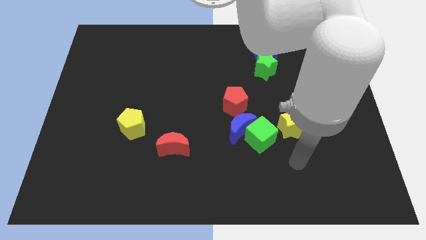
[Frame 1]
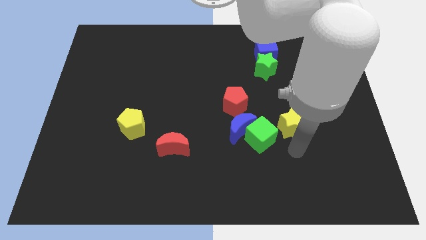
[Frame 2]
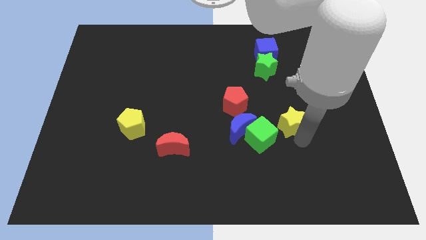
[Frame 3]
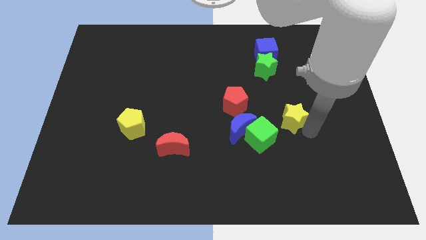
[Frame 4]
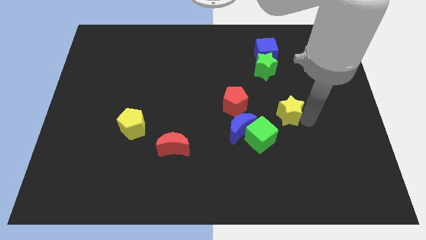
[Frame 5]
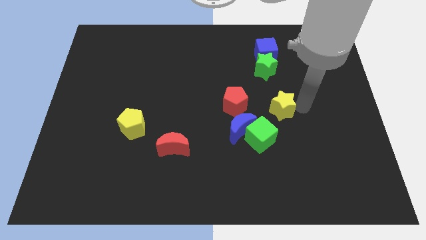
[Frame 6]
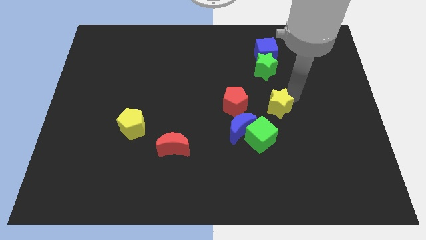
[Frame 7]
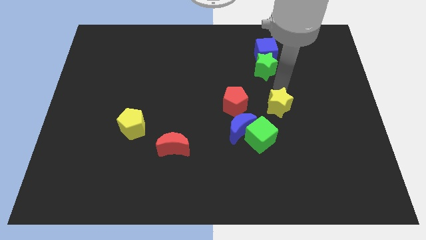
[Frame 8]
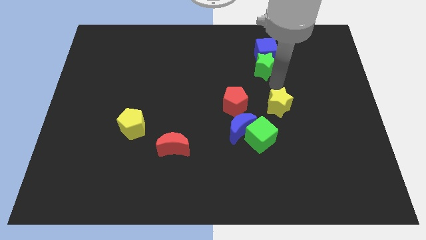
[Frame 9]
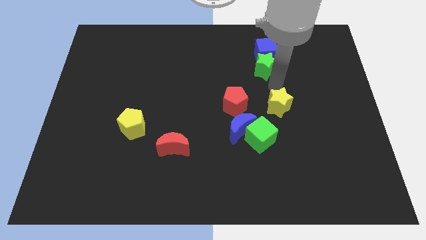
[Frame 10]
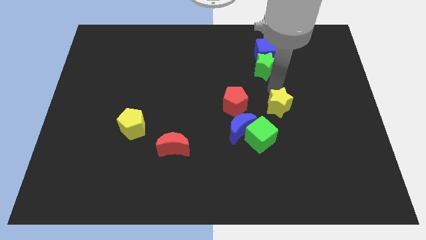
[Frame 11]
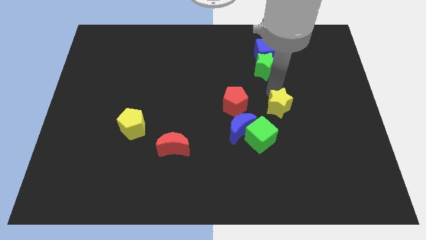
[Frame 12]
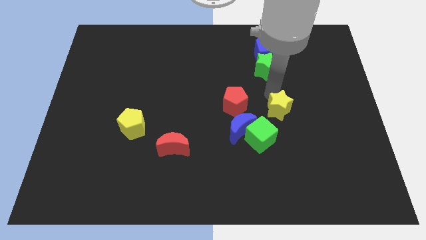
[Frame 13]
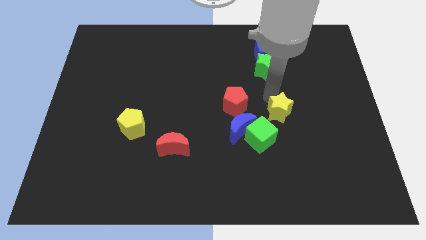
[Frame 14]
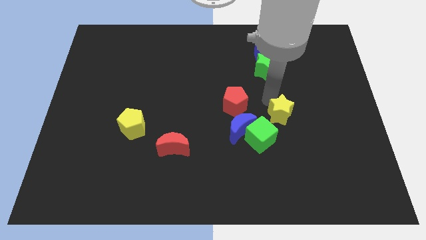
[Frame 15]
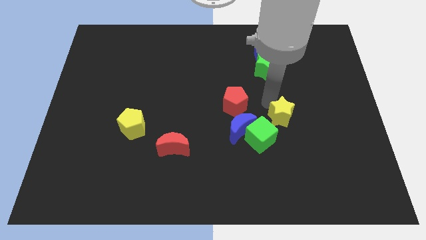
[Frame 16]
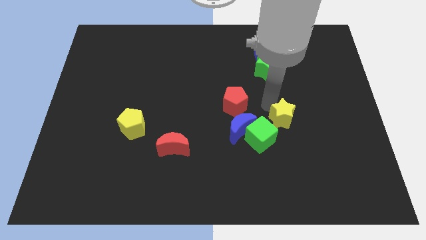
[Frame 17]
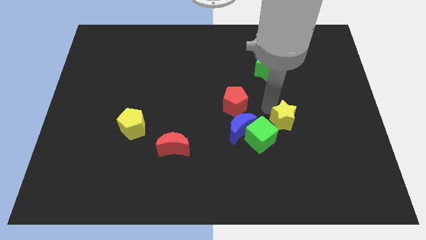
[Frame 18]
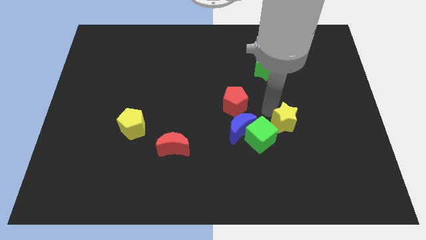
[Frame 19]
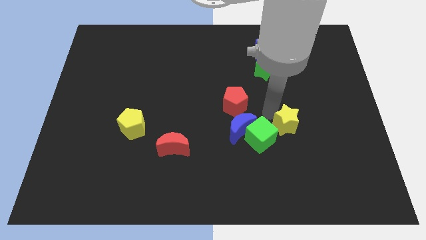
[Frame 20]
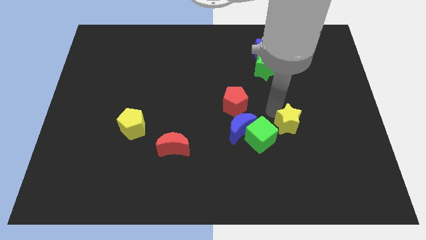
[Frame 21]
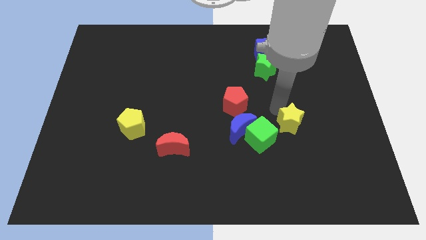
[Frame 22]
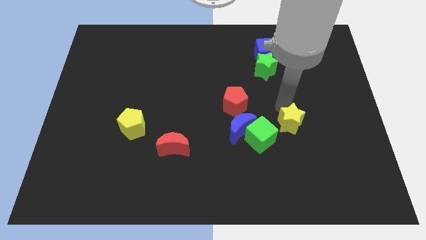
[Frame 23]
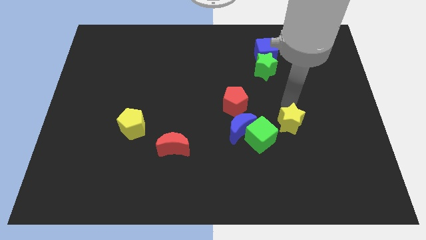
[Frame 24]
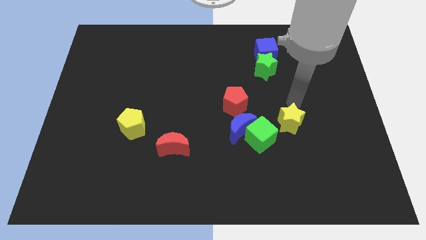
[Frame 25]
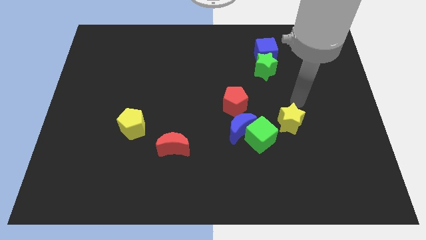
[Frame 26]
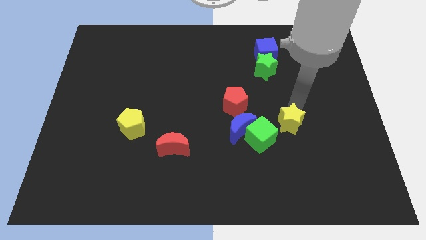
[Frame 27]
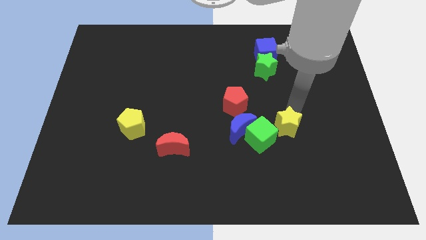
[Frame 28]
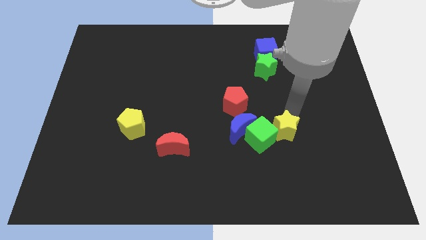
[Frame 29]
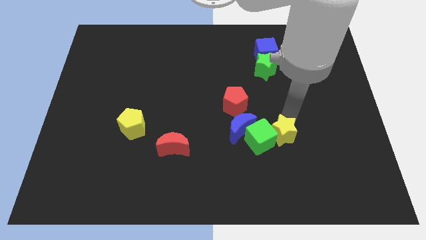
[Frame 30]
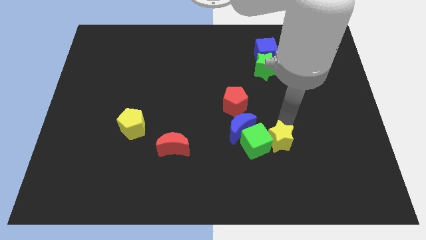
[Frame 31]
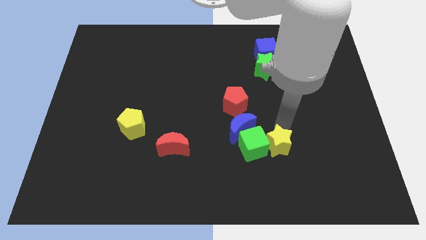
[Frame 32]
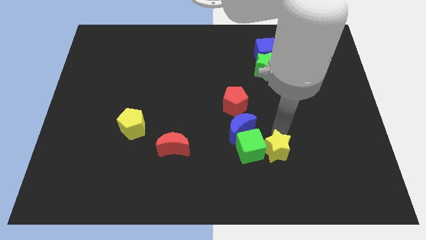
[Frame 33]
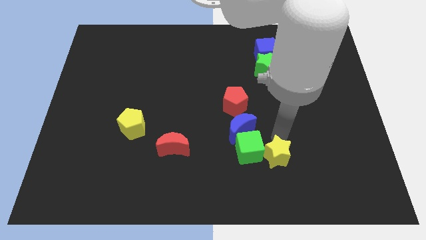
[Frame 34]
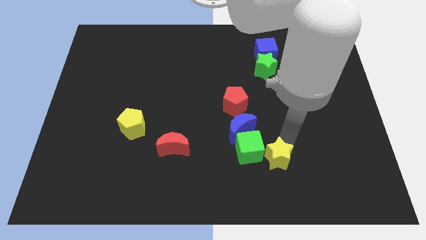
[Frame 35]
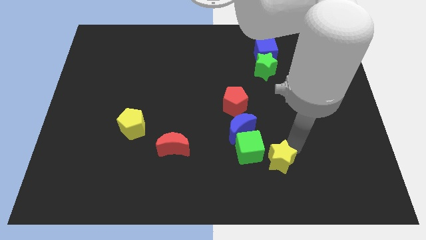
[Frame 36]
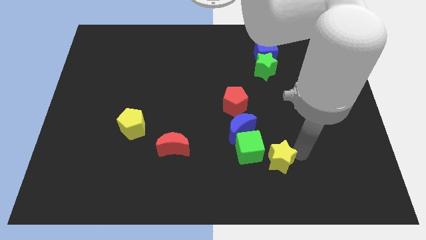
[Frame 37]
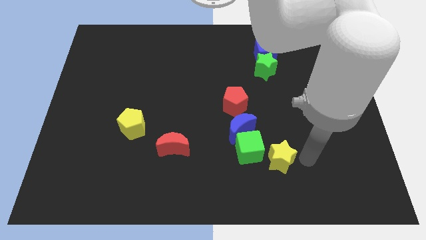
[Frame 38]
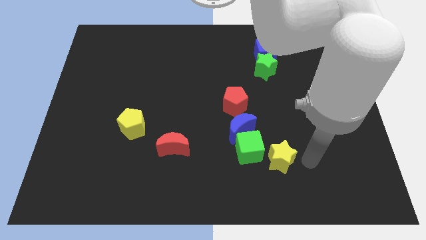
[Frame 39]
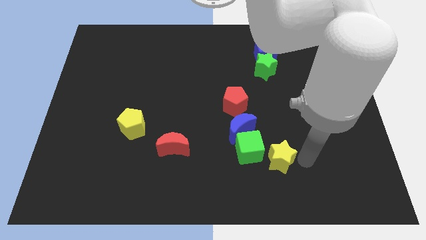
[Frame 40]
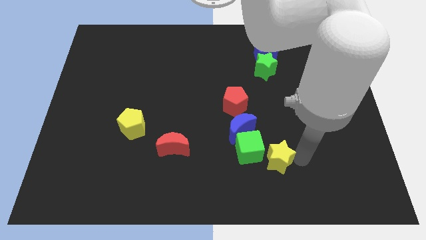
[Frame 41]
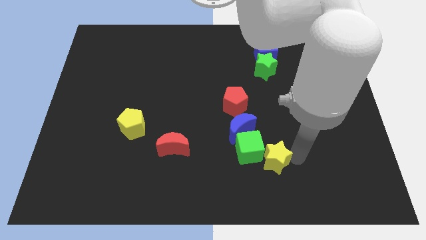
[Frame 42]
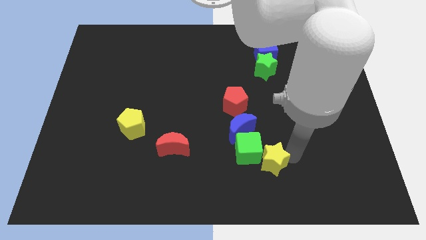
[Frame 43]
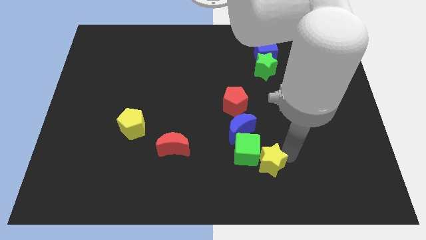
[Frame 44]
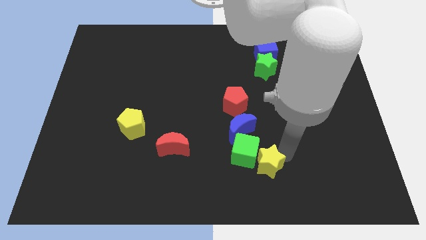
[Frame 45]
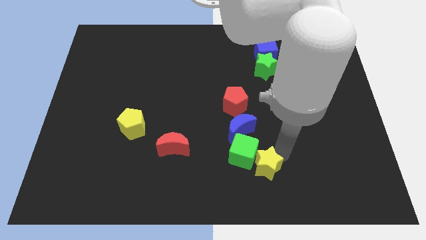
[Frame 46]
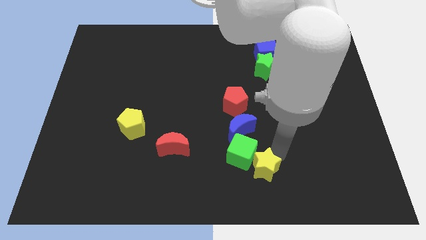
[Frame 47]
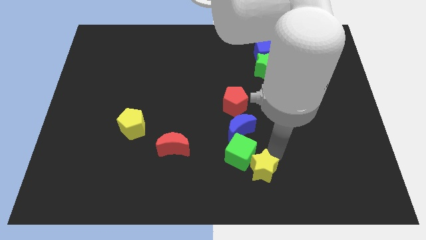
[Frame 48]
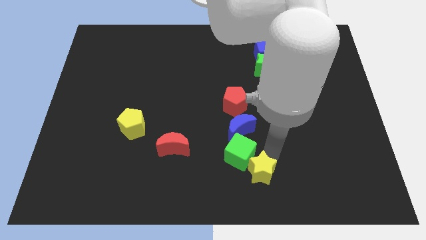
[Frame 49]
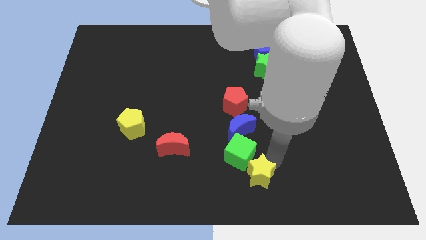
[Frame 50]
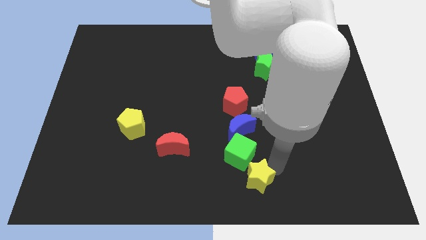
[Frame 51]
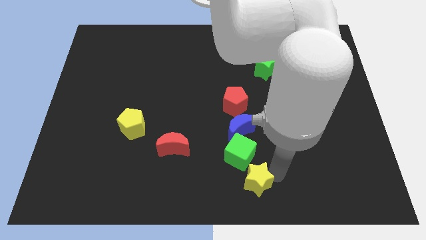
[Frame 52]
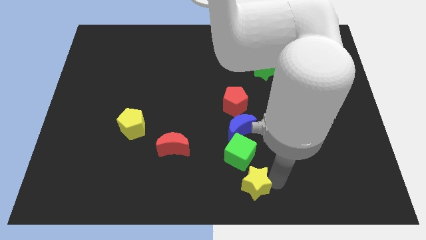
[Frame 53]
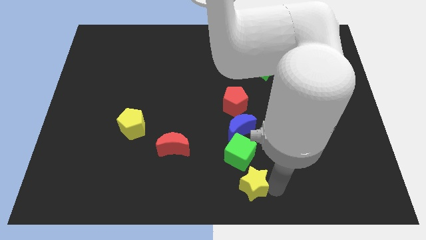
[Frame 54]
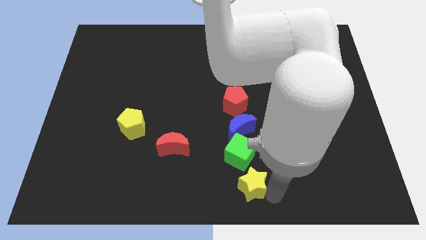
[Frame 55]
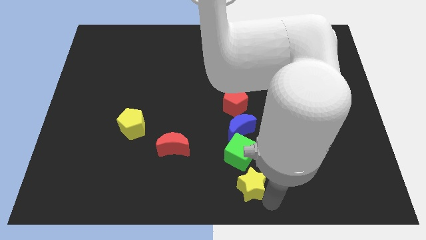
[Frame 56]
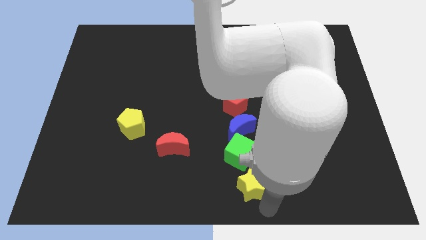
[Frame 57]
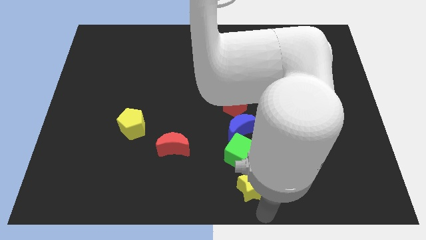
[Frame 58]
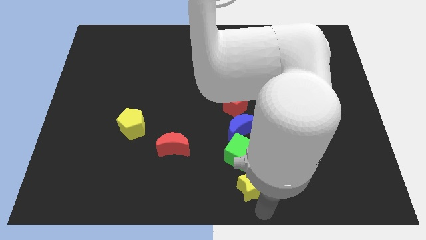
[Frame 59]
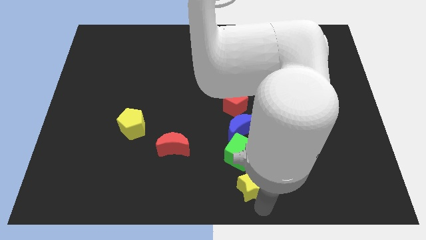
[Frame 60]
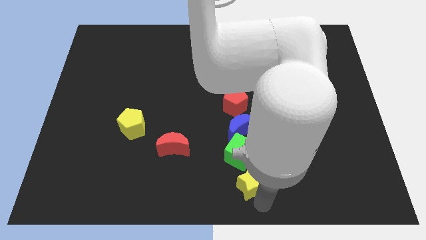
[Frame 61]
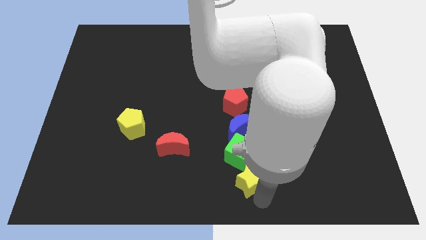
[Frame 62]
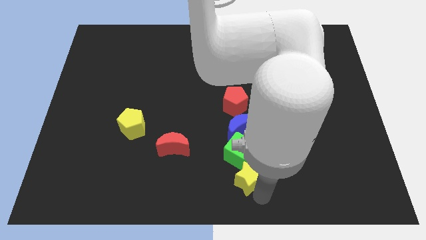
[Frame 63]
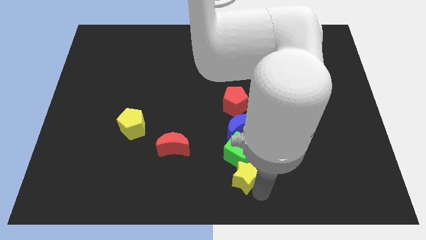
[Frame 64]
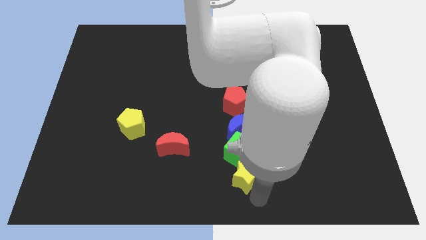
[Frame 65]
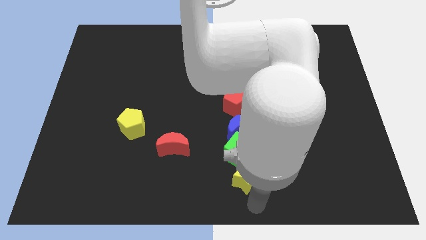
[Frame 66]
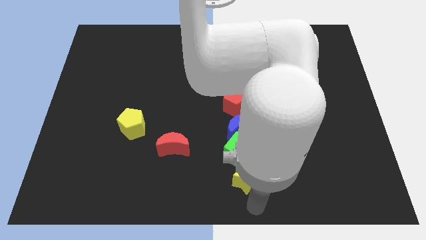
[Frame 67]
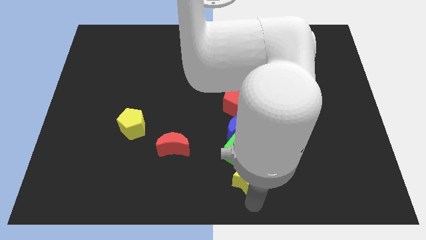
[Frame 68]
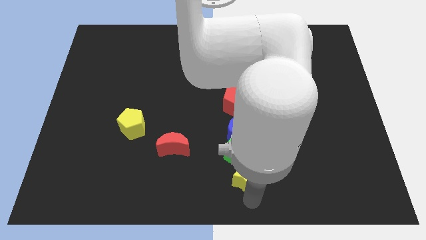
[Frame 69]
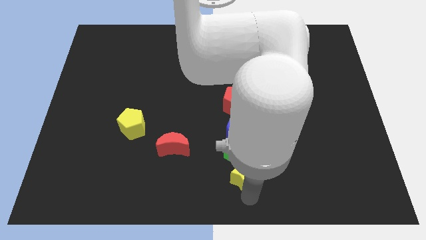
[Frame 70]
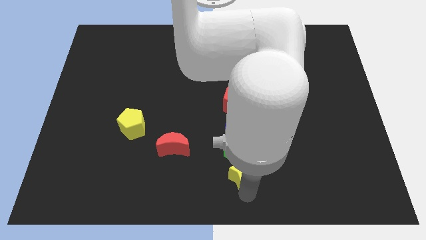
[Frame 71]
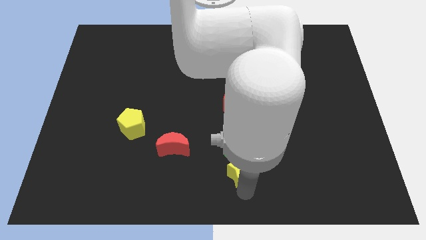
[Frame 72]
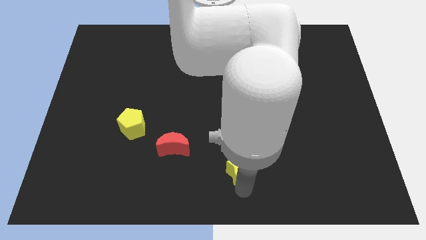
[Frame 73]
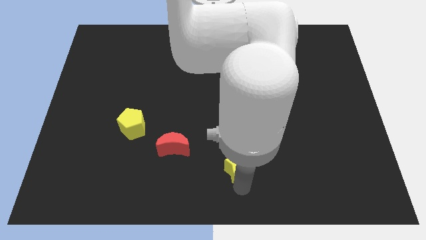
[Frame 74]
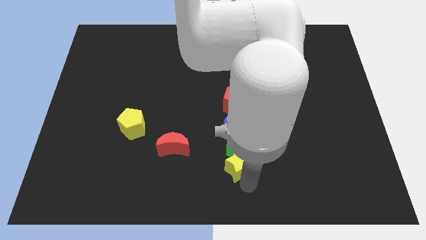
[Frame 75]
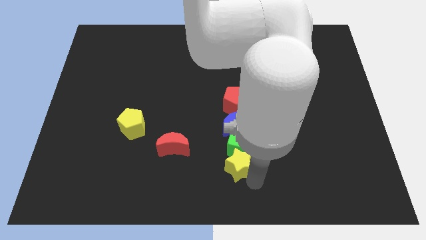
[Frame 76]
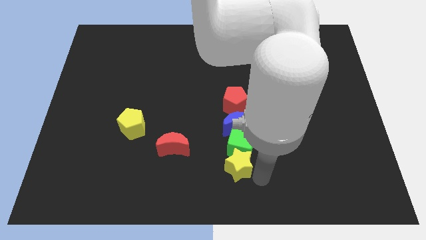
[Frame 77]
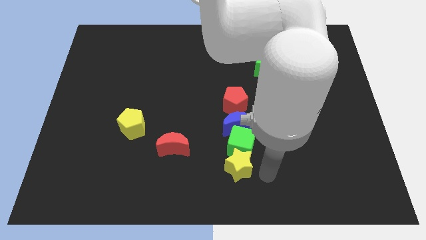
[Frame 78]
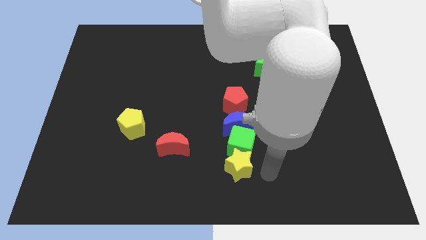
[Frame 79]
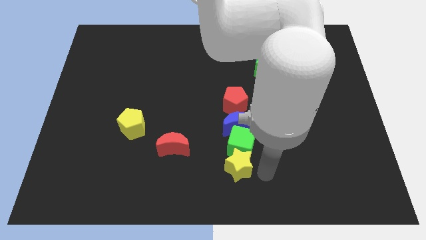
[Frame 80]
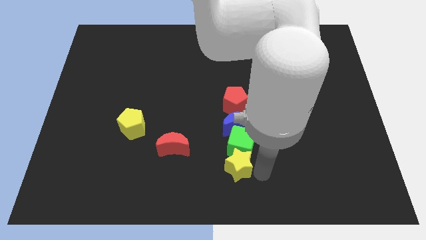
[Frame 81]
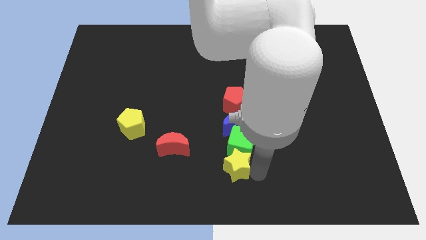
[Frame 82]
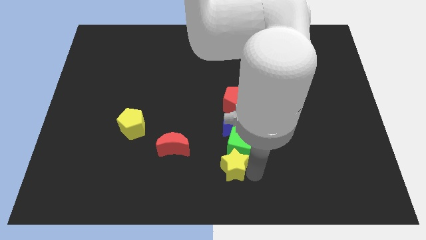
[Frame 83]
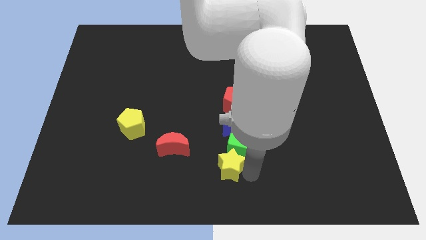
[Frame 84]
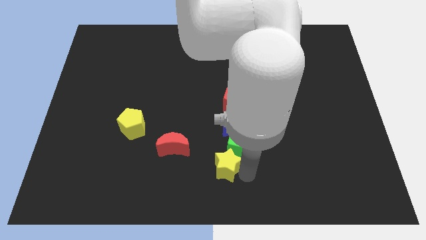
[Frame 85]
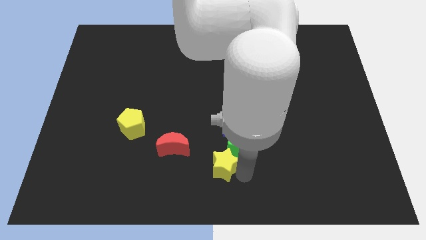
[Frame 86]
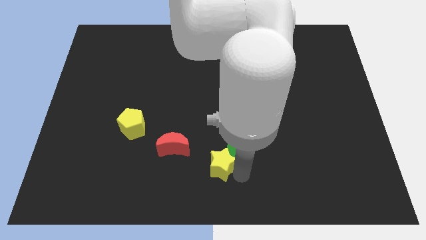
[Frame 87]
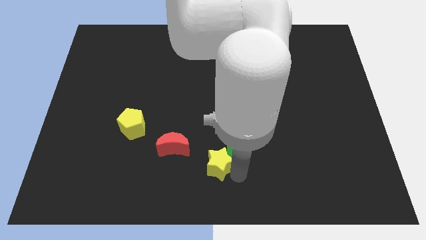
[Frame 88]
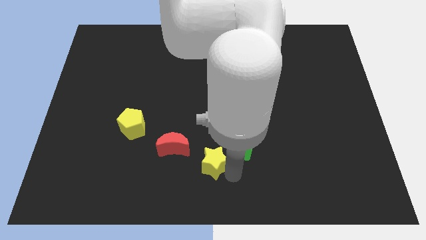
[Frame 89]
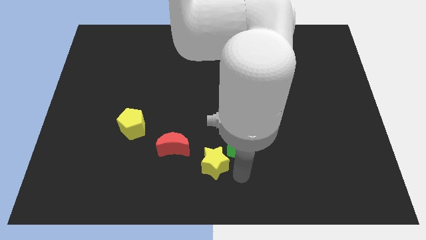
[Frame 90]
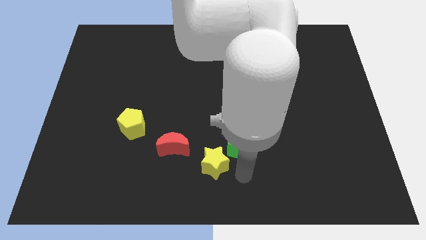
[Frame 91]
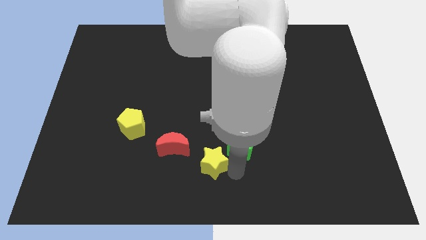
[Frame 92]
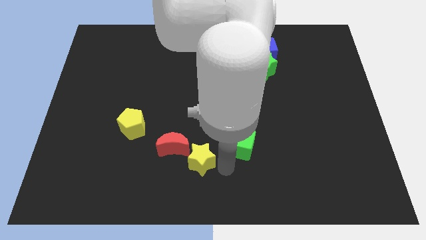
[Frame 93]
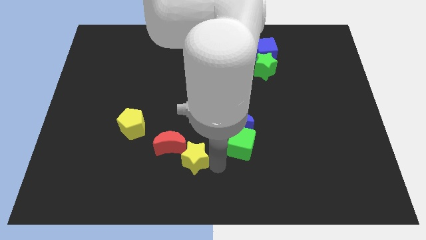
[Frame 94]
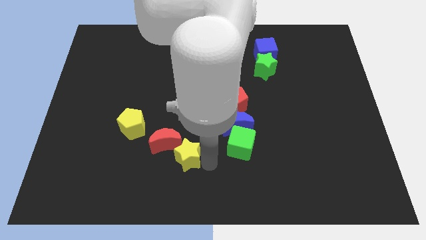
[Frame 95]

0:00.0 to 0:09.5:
slide the yellow star next to the red moon
